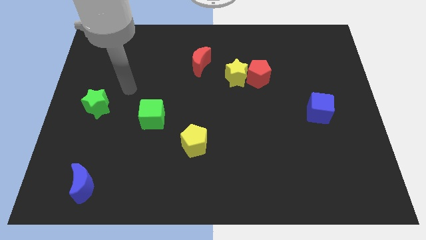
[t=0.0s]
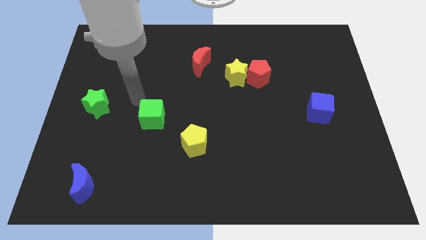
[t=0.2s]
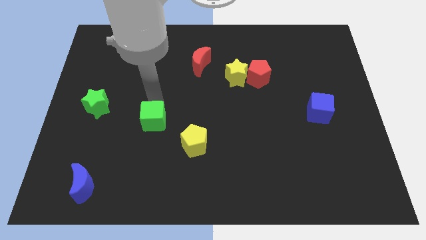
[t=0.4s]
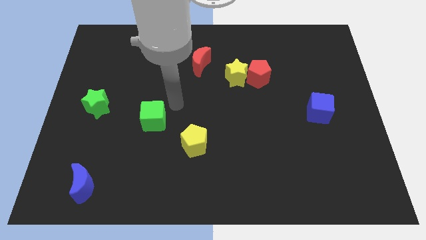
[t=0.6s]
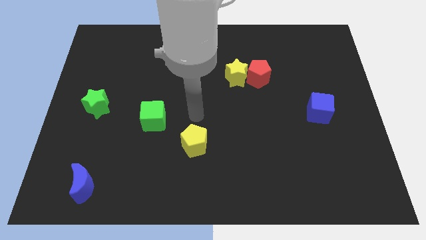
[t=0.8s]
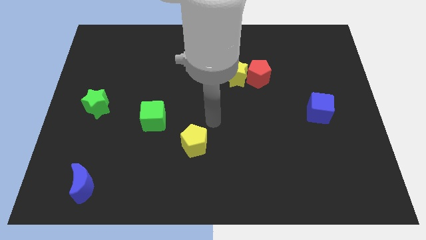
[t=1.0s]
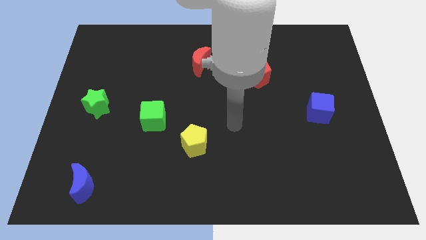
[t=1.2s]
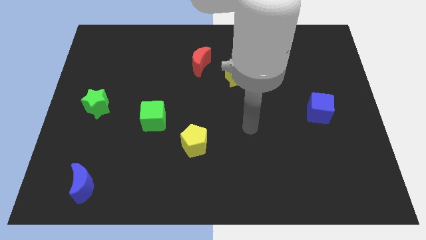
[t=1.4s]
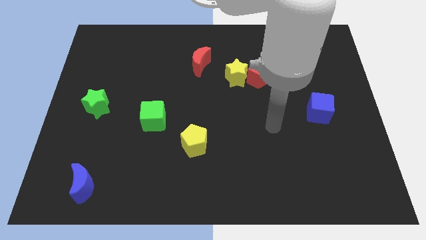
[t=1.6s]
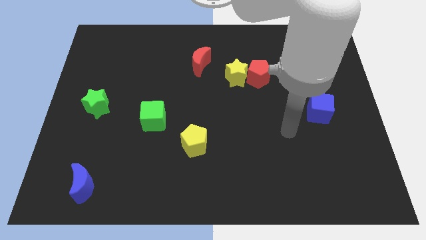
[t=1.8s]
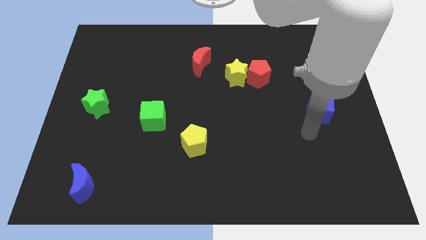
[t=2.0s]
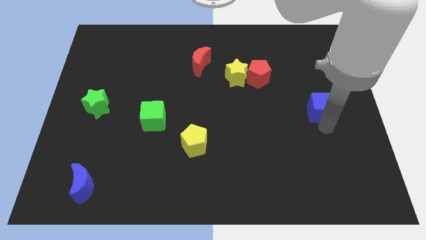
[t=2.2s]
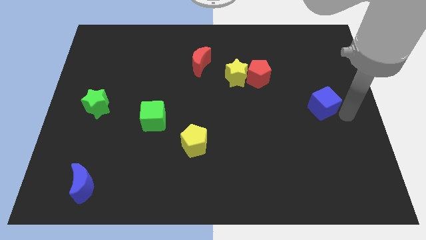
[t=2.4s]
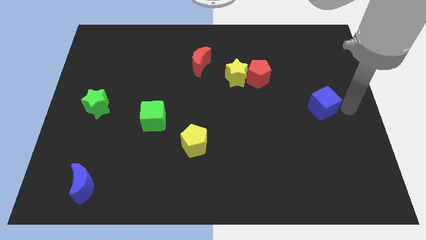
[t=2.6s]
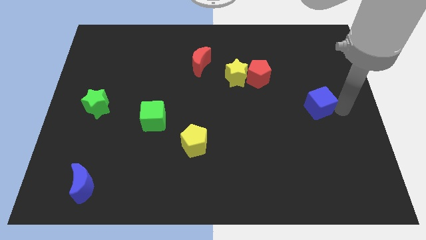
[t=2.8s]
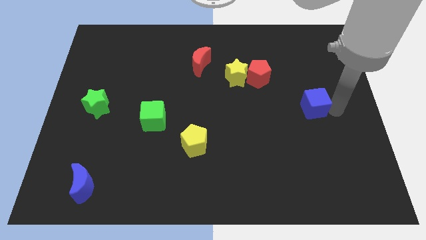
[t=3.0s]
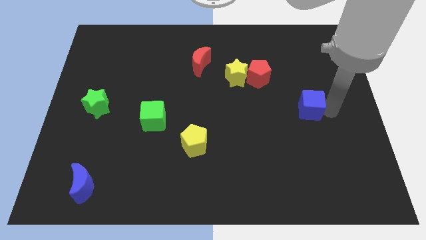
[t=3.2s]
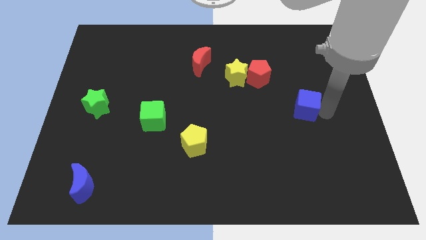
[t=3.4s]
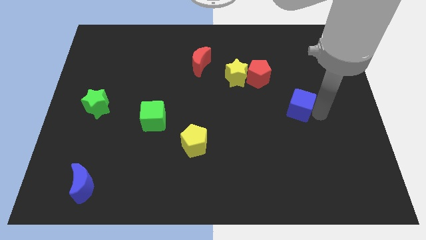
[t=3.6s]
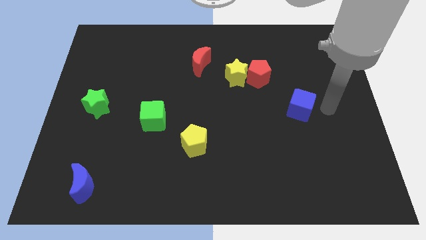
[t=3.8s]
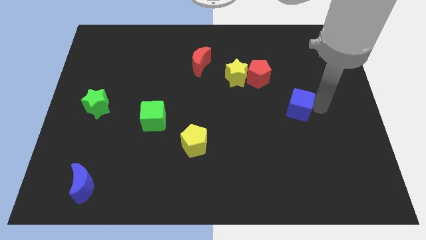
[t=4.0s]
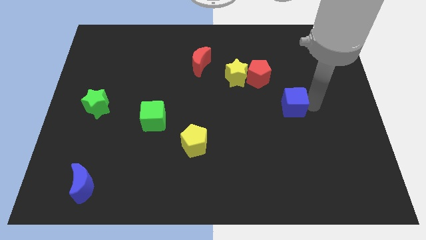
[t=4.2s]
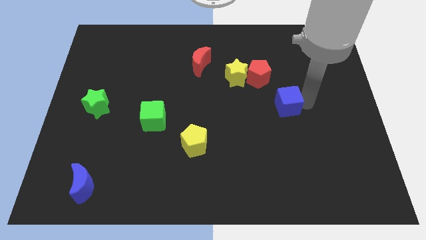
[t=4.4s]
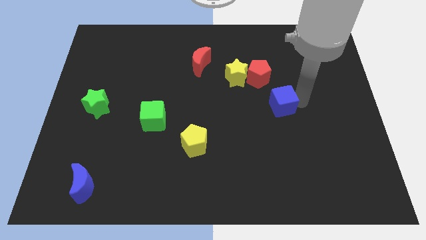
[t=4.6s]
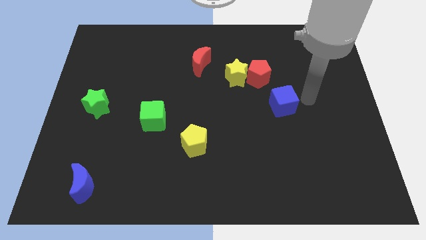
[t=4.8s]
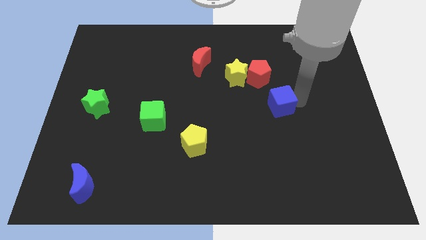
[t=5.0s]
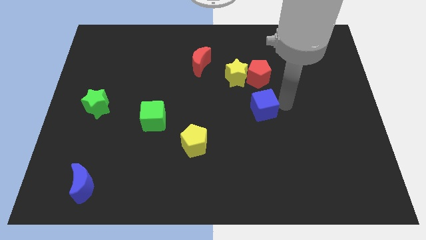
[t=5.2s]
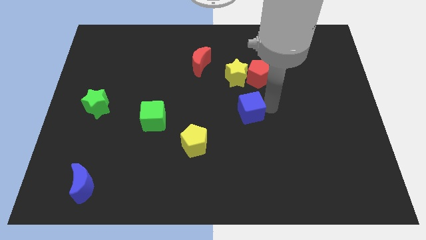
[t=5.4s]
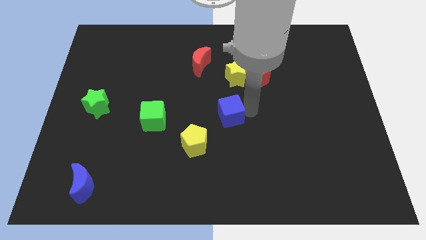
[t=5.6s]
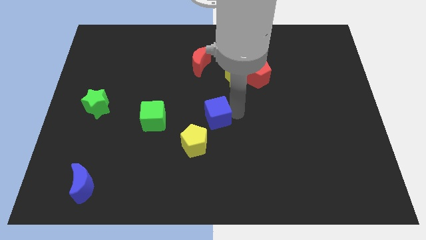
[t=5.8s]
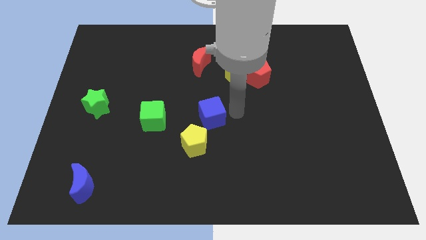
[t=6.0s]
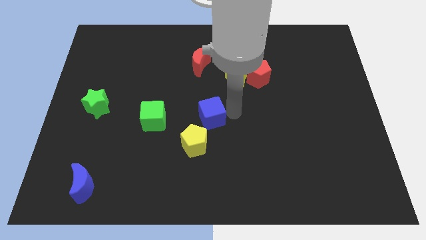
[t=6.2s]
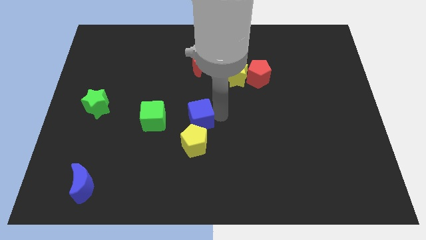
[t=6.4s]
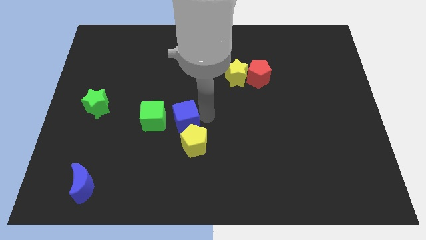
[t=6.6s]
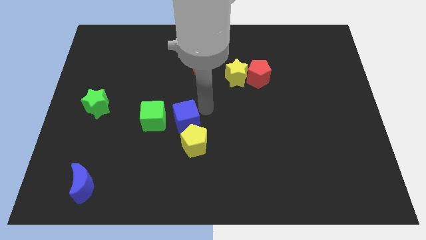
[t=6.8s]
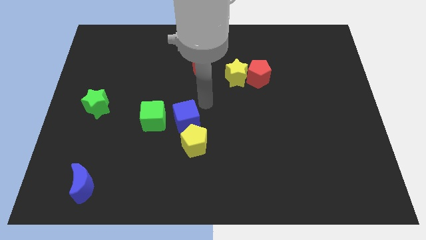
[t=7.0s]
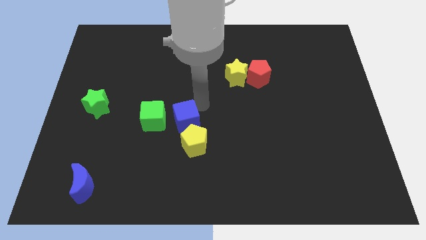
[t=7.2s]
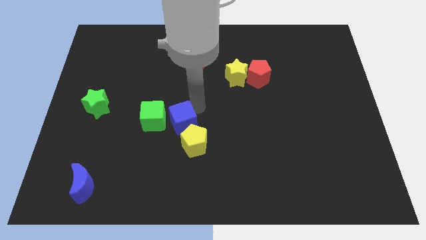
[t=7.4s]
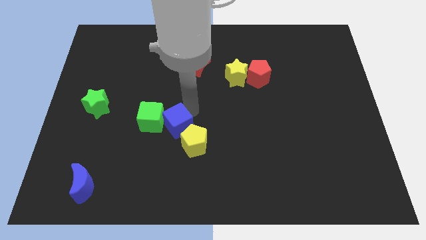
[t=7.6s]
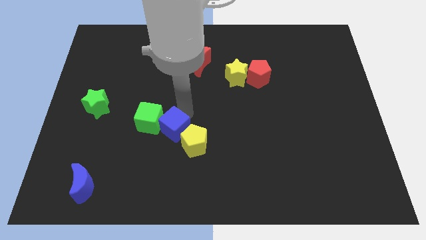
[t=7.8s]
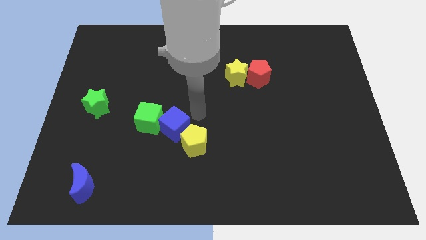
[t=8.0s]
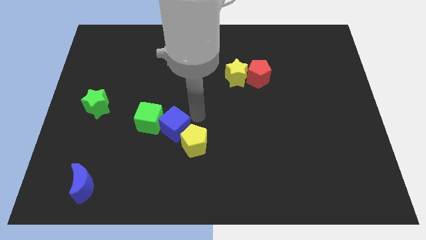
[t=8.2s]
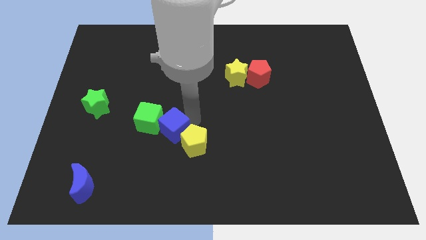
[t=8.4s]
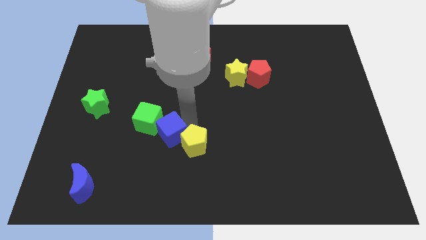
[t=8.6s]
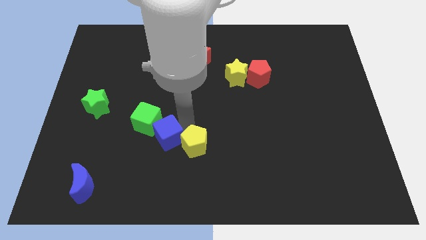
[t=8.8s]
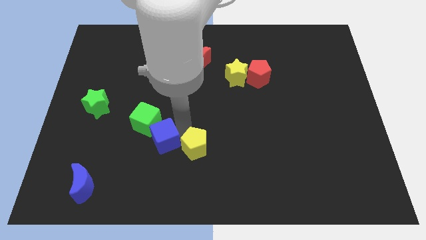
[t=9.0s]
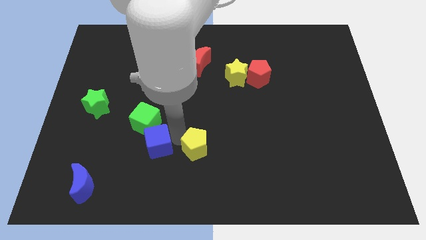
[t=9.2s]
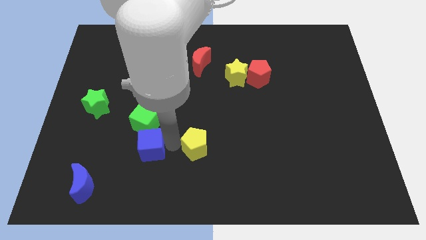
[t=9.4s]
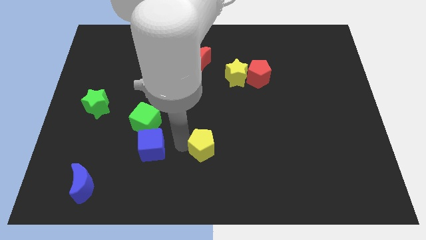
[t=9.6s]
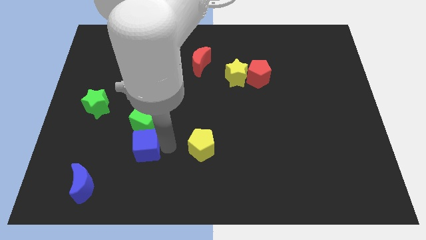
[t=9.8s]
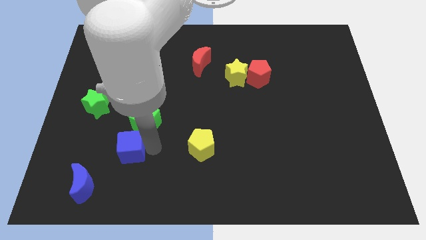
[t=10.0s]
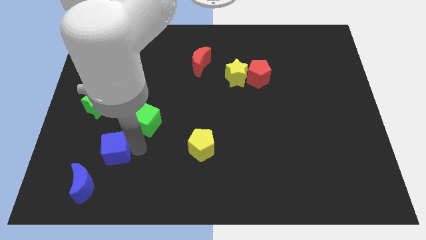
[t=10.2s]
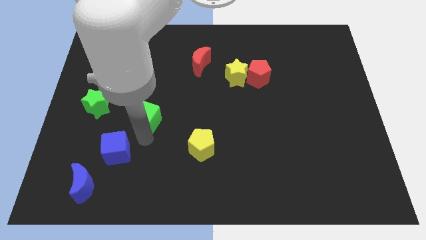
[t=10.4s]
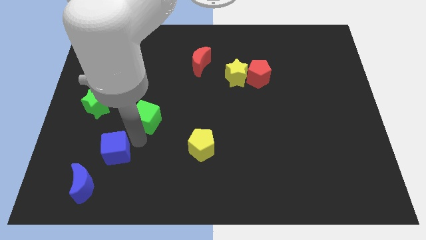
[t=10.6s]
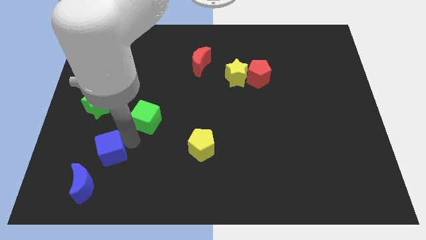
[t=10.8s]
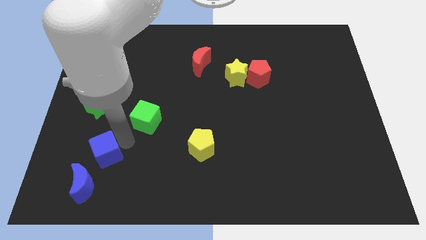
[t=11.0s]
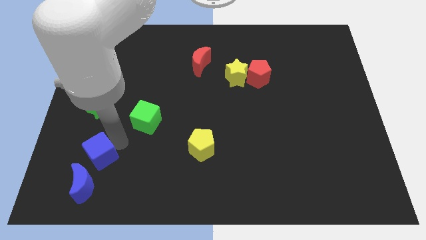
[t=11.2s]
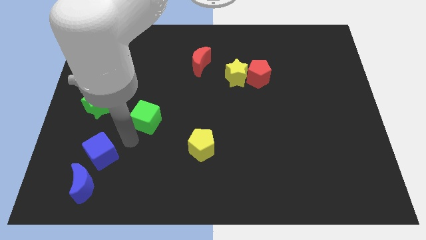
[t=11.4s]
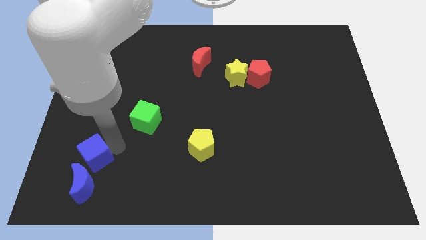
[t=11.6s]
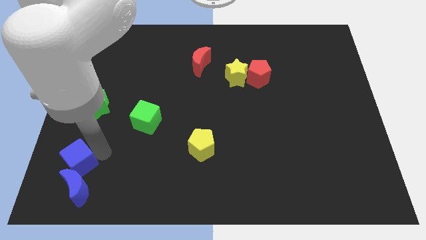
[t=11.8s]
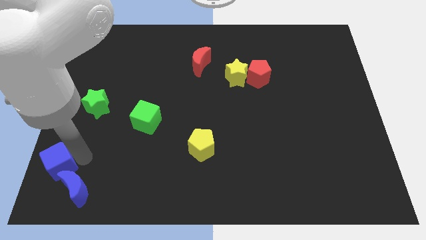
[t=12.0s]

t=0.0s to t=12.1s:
slide the blue cube to the lower left corner
